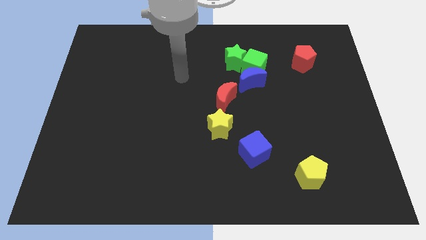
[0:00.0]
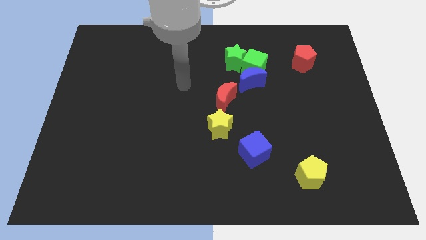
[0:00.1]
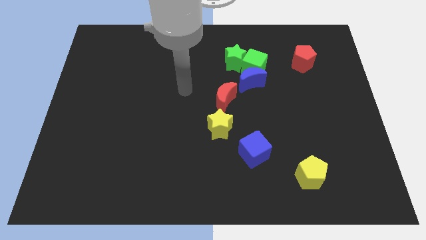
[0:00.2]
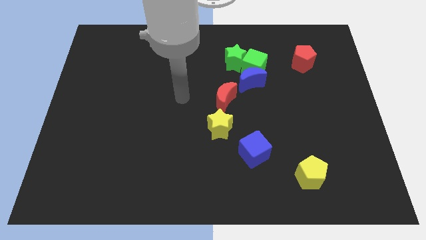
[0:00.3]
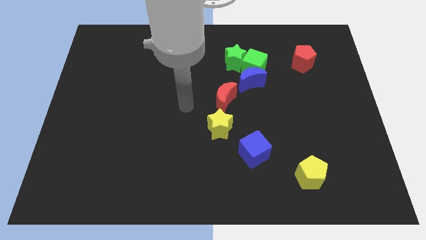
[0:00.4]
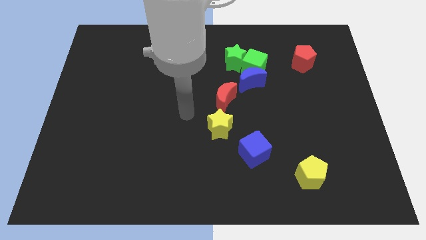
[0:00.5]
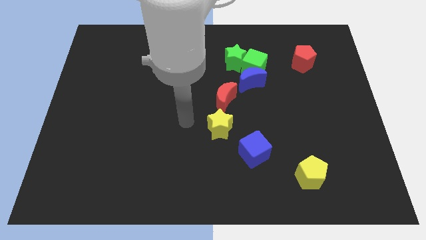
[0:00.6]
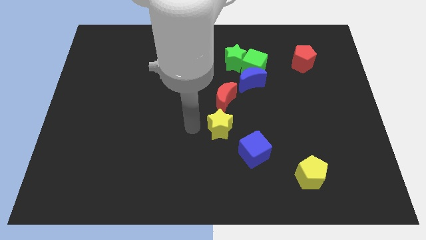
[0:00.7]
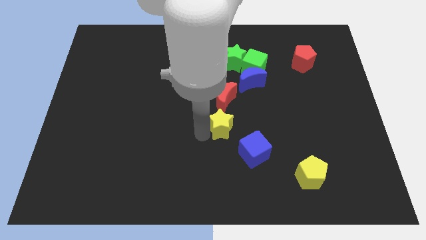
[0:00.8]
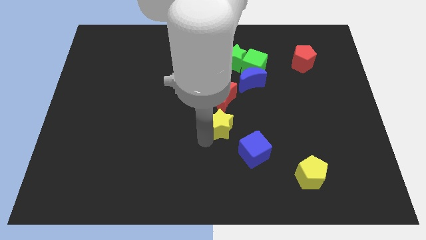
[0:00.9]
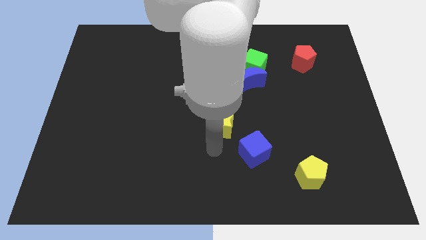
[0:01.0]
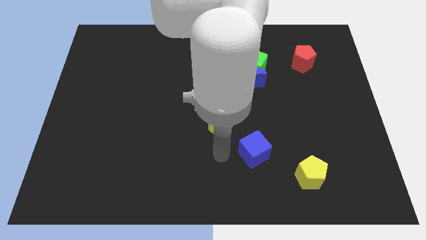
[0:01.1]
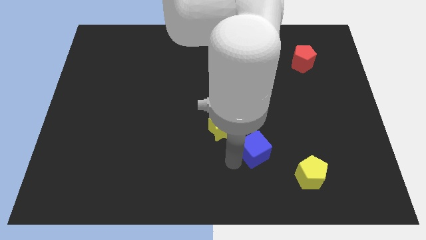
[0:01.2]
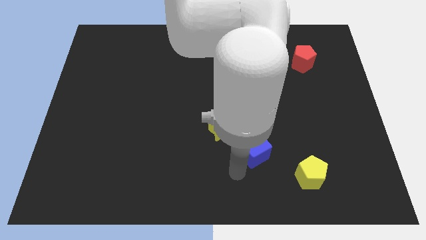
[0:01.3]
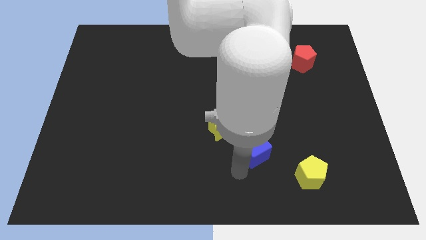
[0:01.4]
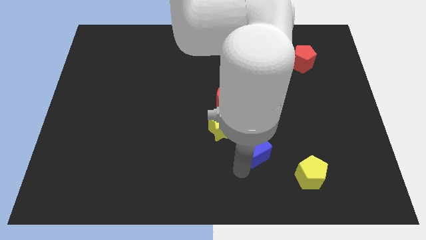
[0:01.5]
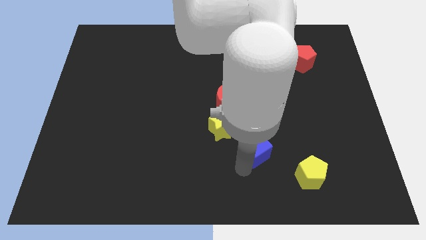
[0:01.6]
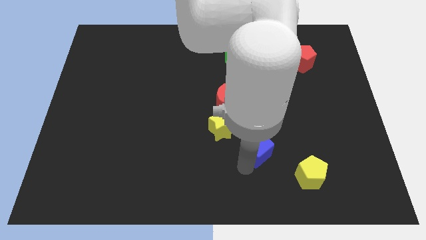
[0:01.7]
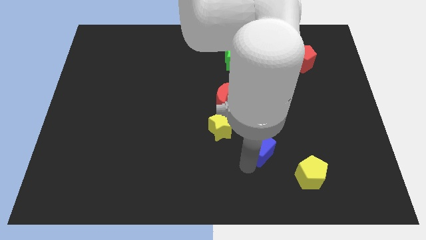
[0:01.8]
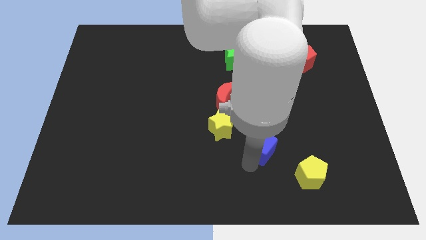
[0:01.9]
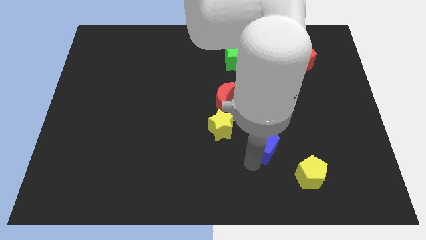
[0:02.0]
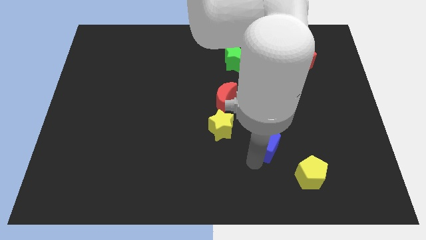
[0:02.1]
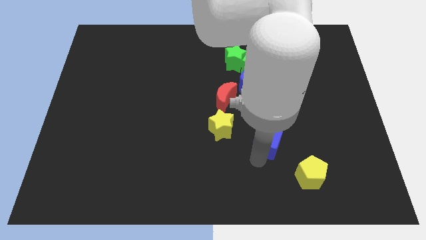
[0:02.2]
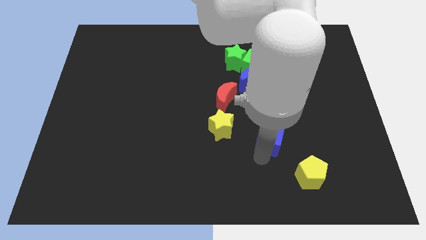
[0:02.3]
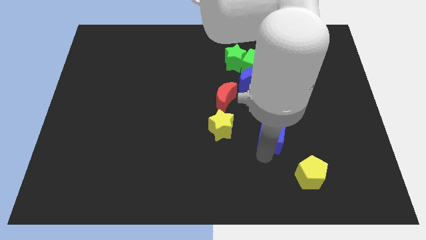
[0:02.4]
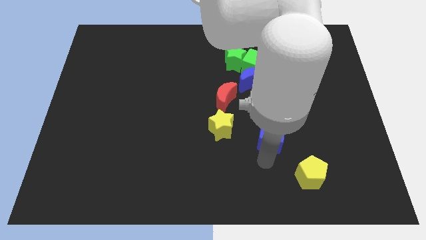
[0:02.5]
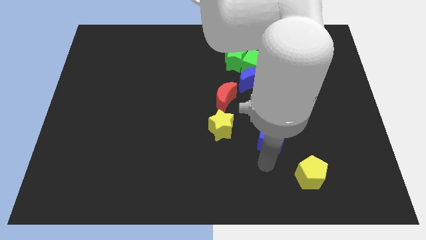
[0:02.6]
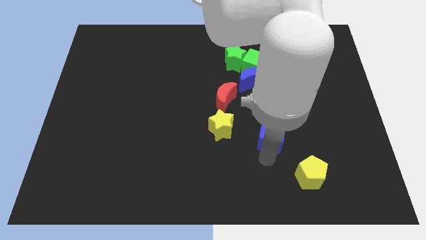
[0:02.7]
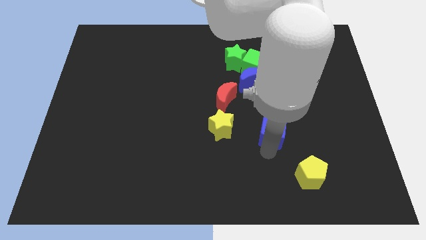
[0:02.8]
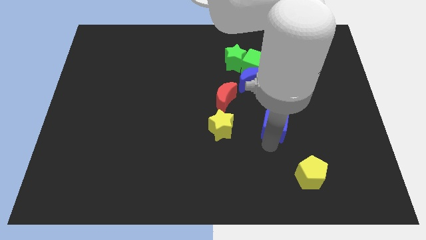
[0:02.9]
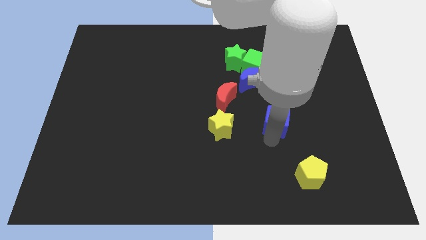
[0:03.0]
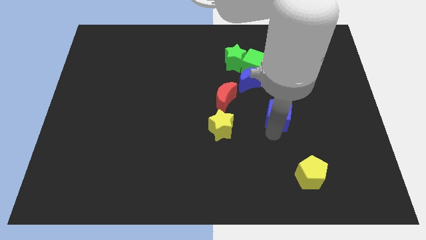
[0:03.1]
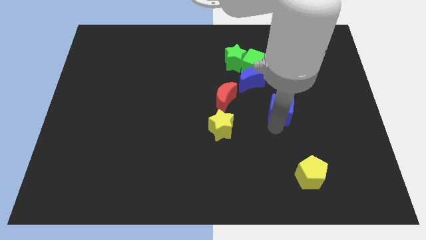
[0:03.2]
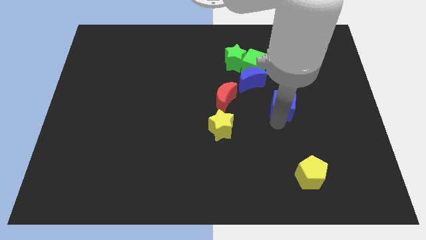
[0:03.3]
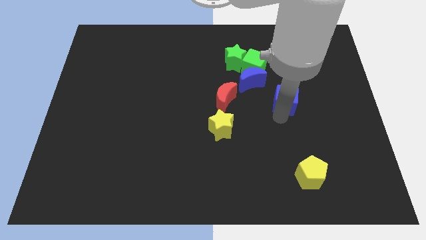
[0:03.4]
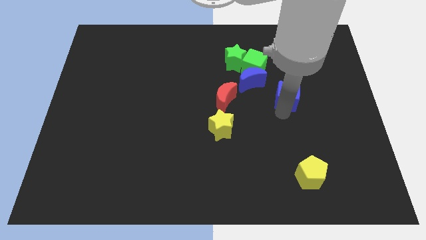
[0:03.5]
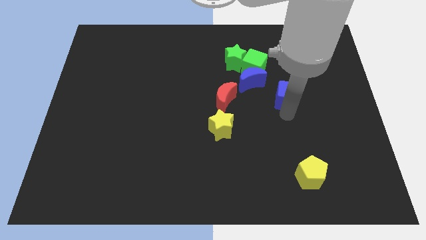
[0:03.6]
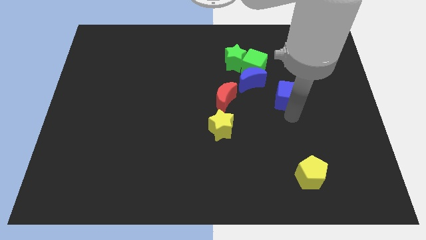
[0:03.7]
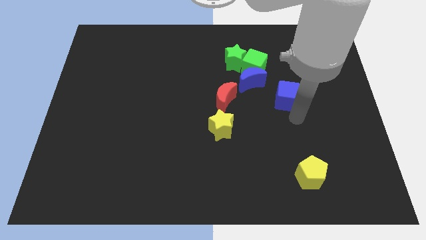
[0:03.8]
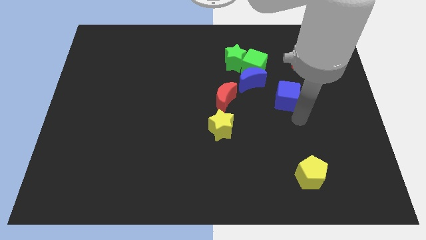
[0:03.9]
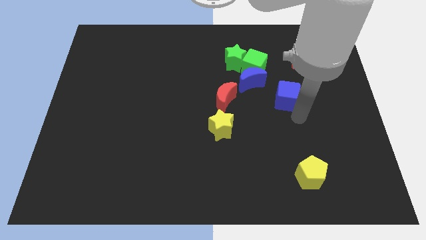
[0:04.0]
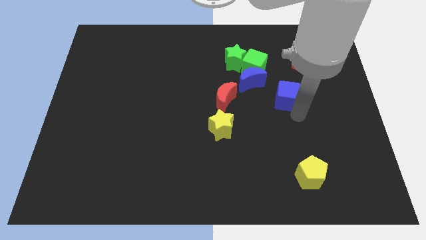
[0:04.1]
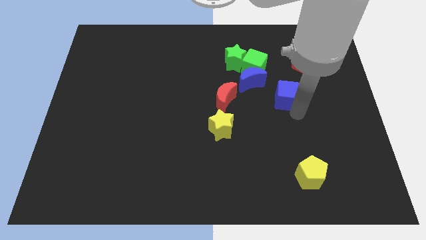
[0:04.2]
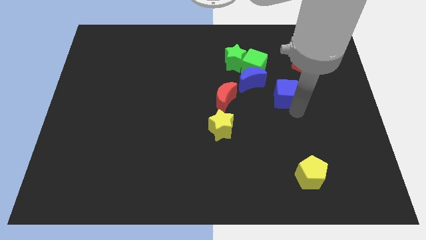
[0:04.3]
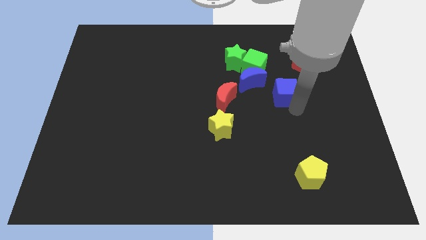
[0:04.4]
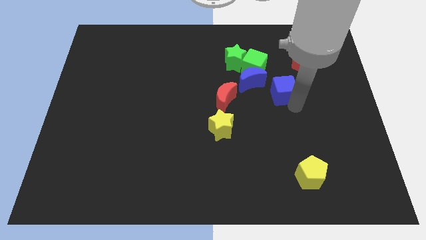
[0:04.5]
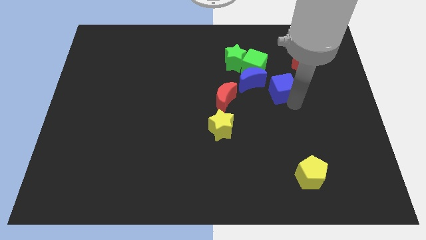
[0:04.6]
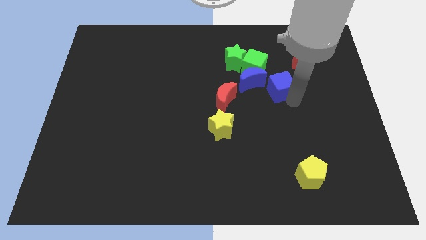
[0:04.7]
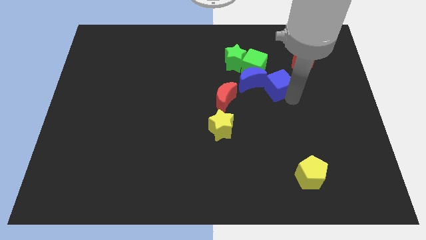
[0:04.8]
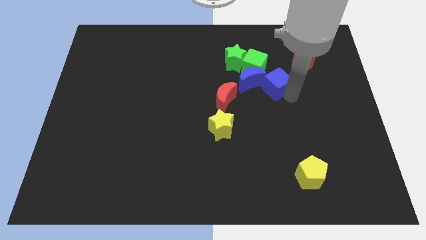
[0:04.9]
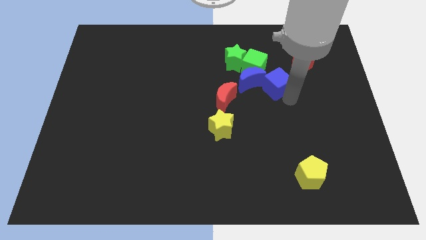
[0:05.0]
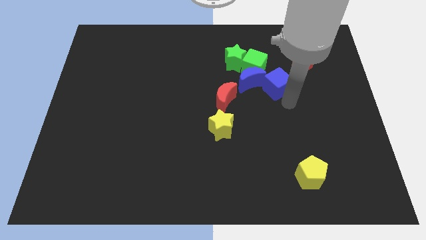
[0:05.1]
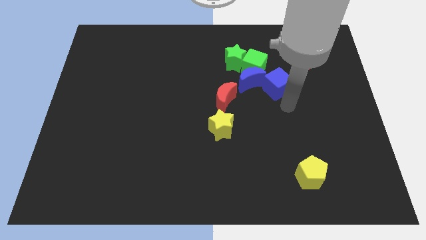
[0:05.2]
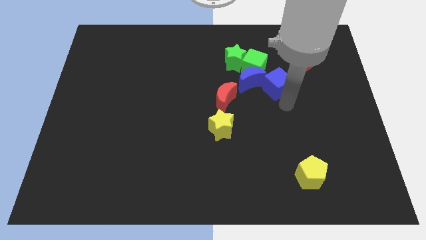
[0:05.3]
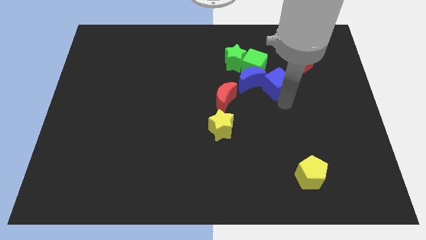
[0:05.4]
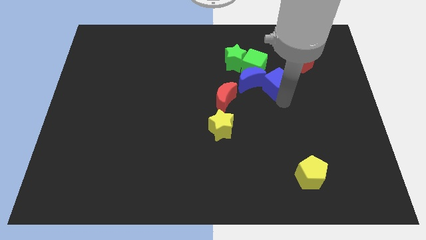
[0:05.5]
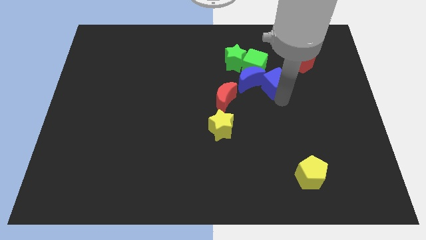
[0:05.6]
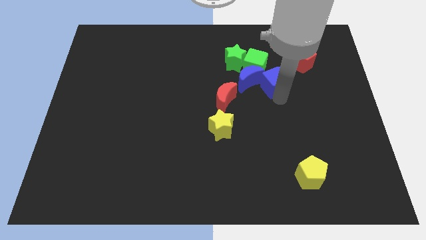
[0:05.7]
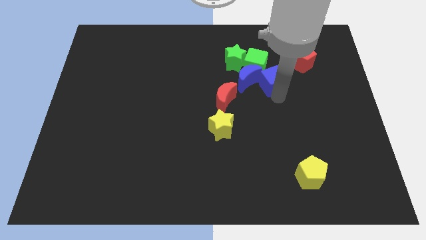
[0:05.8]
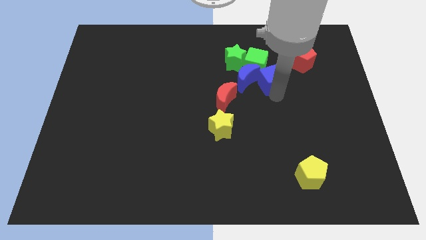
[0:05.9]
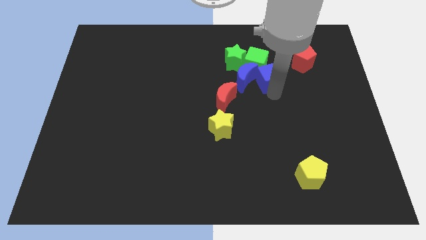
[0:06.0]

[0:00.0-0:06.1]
slide the blue cube towards the green cube
